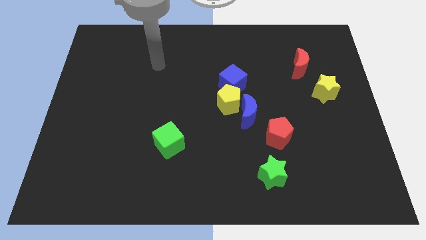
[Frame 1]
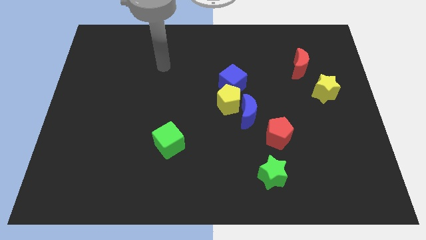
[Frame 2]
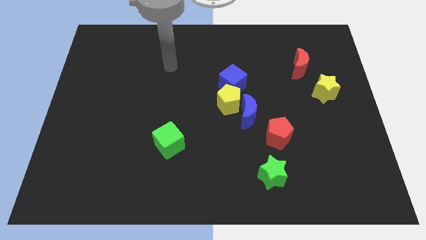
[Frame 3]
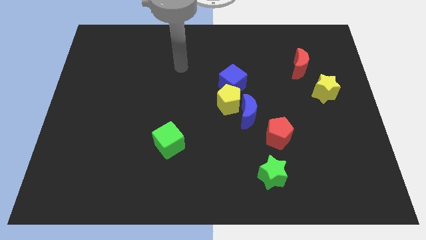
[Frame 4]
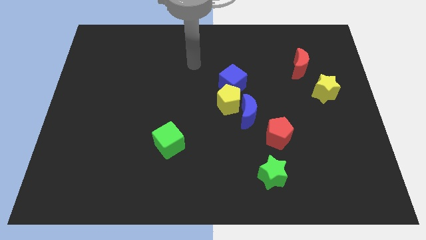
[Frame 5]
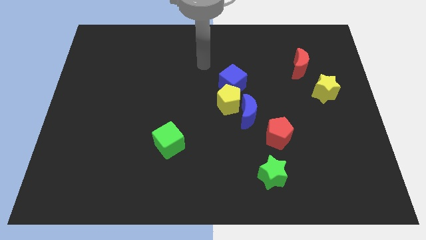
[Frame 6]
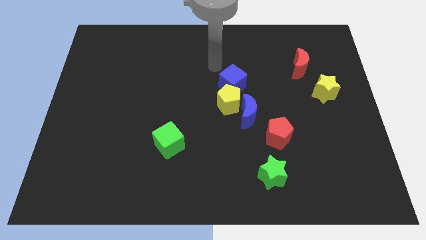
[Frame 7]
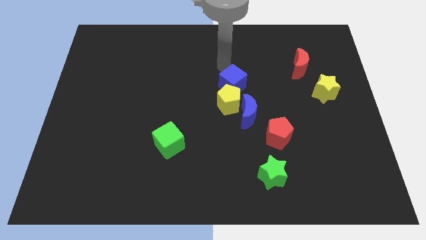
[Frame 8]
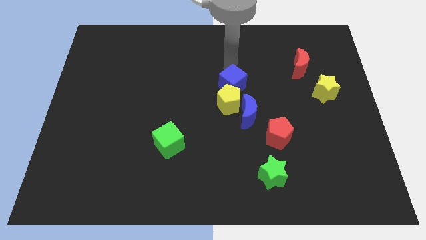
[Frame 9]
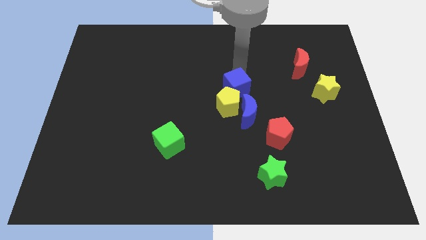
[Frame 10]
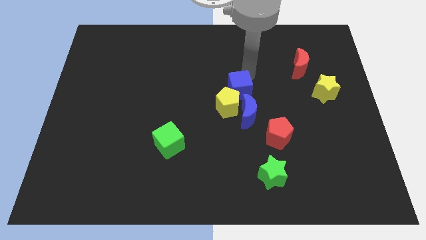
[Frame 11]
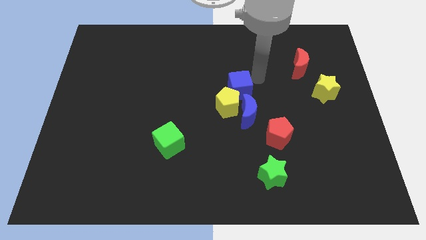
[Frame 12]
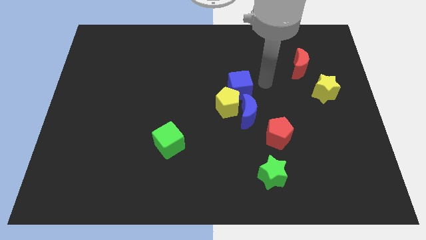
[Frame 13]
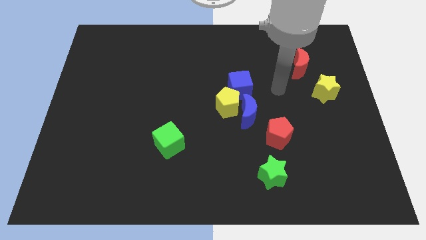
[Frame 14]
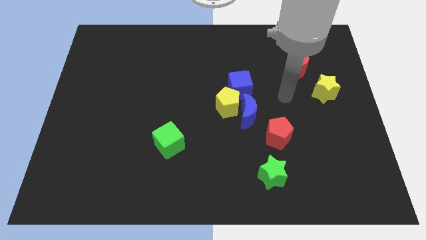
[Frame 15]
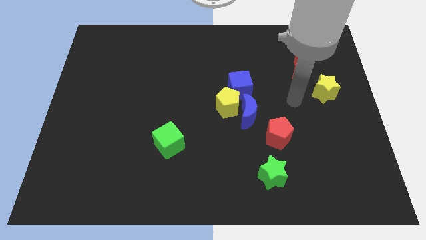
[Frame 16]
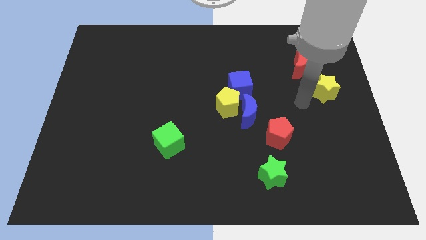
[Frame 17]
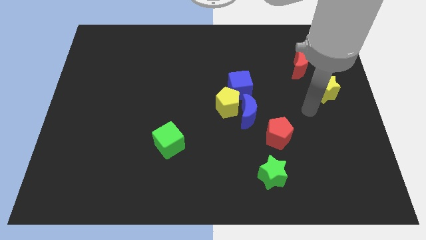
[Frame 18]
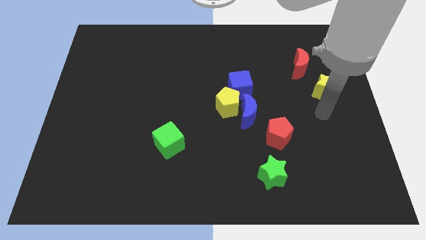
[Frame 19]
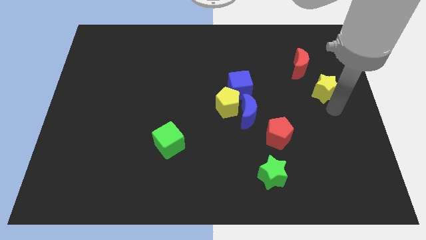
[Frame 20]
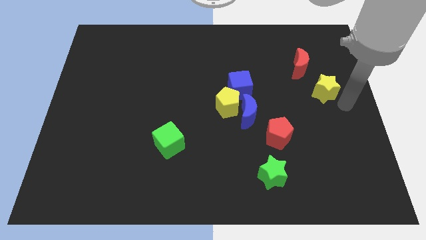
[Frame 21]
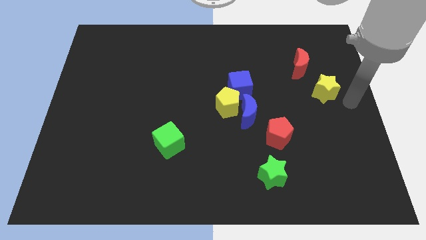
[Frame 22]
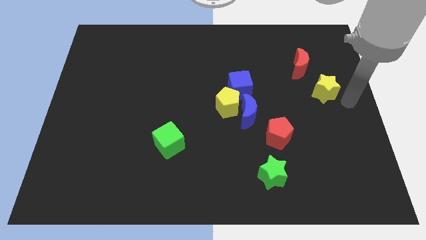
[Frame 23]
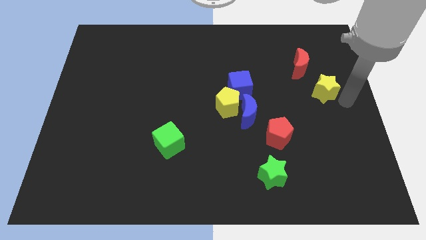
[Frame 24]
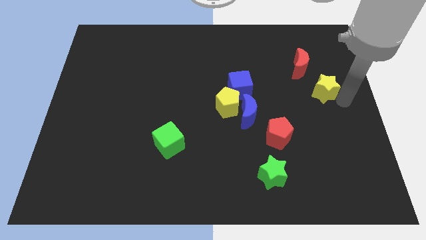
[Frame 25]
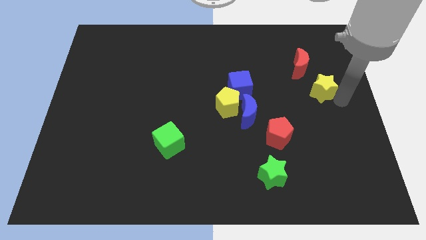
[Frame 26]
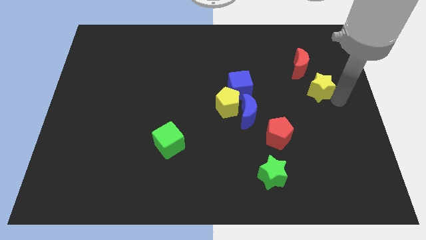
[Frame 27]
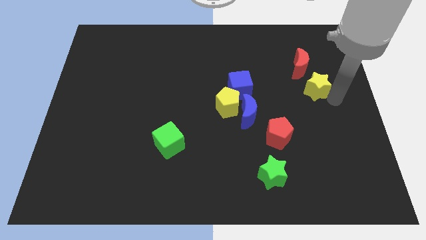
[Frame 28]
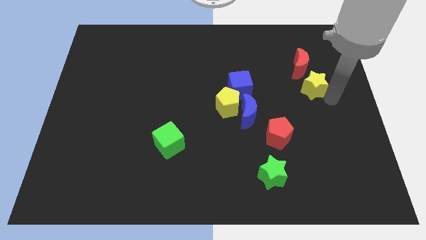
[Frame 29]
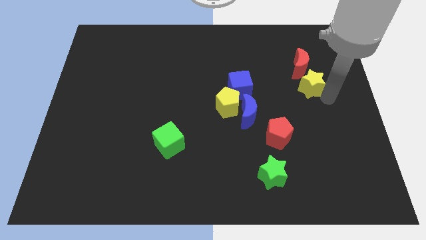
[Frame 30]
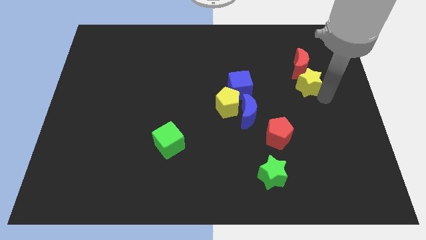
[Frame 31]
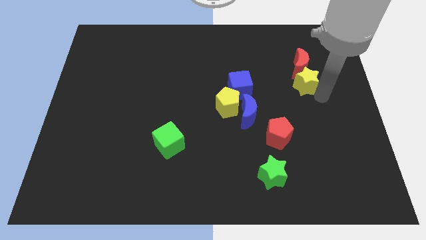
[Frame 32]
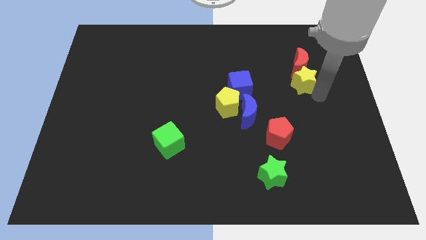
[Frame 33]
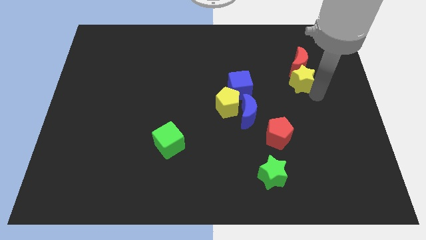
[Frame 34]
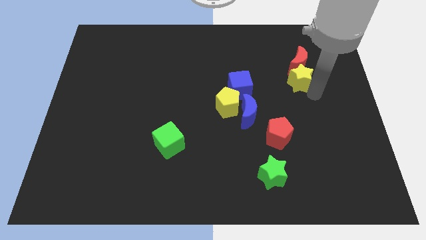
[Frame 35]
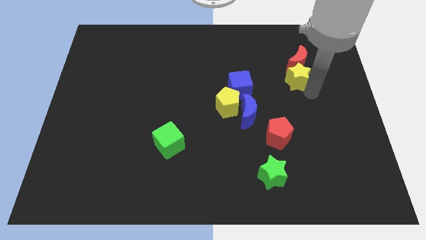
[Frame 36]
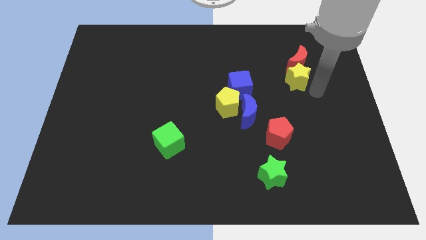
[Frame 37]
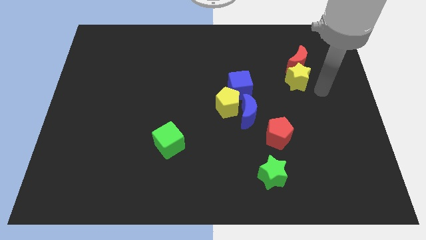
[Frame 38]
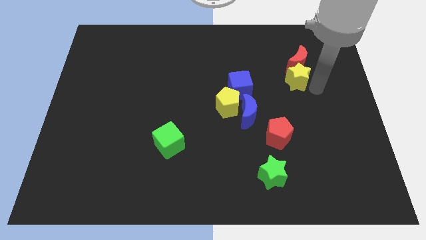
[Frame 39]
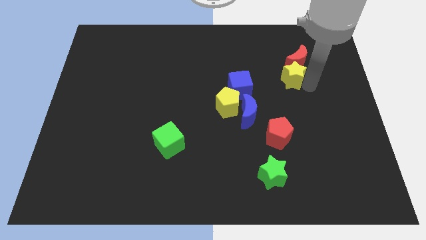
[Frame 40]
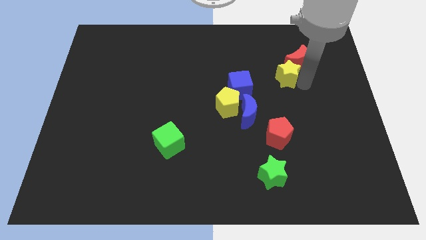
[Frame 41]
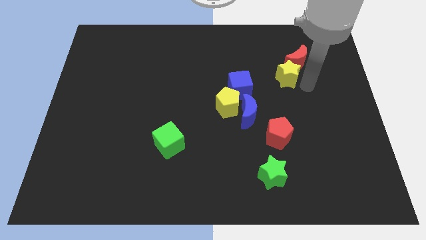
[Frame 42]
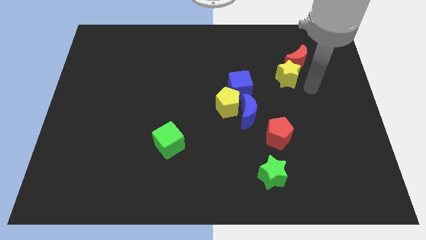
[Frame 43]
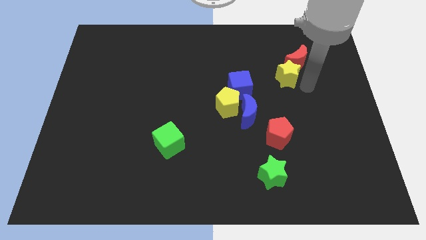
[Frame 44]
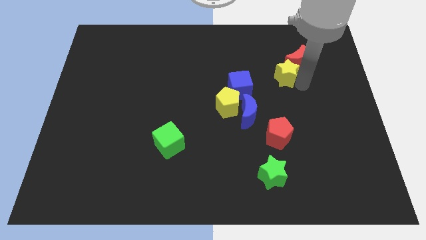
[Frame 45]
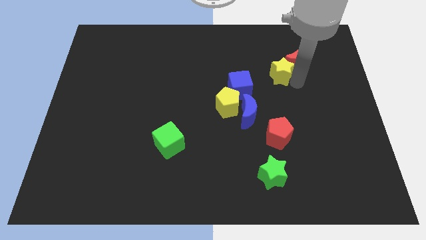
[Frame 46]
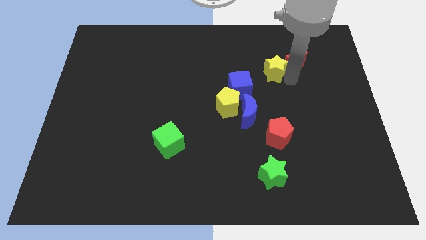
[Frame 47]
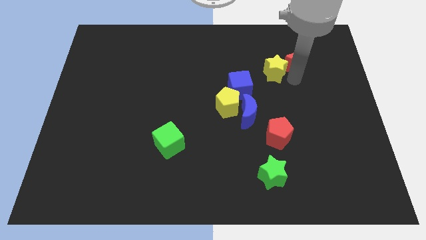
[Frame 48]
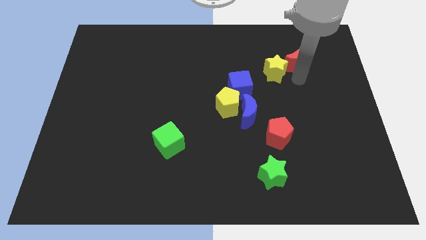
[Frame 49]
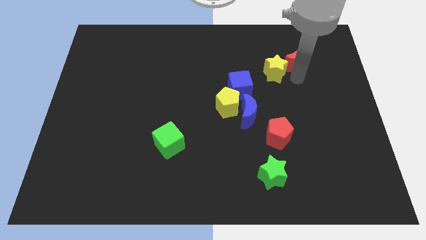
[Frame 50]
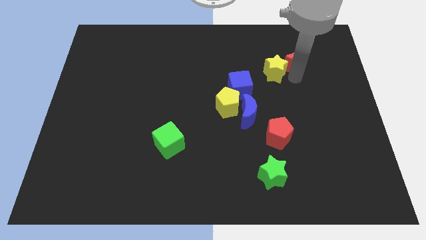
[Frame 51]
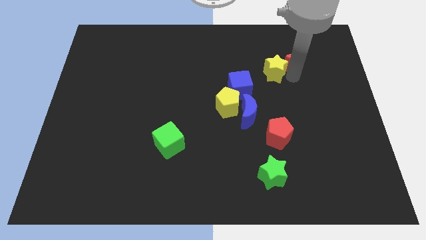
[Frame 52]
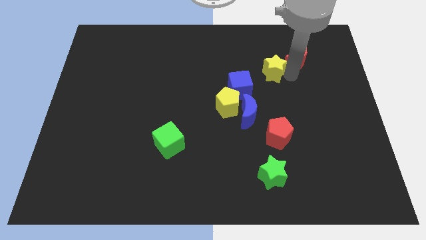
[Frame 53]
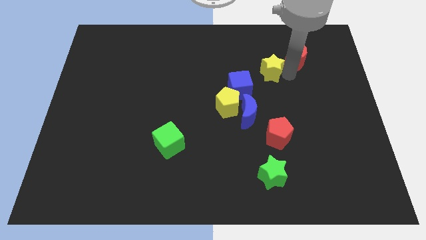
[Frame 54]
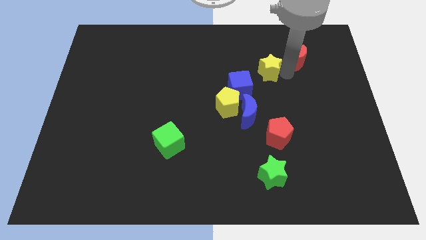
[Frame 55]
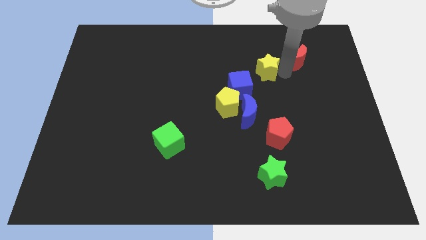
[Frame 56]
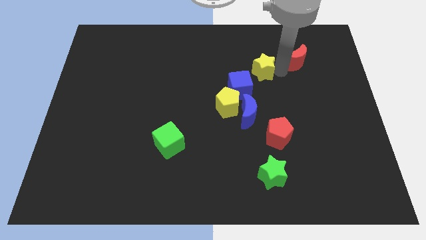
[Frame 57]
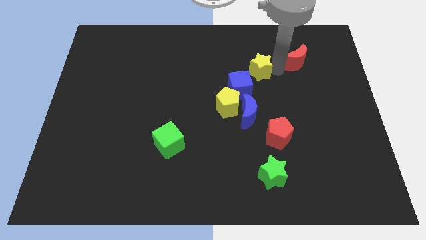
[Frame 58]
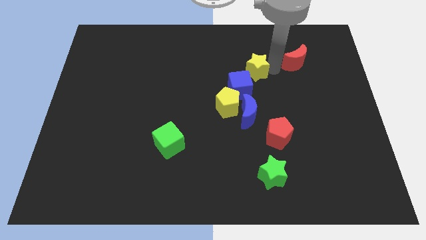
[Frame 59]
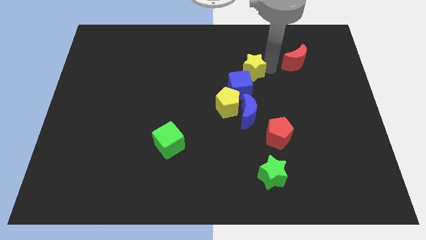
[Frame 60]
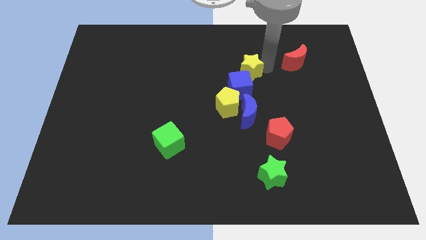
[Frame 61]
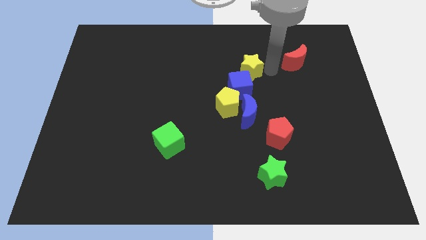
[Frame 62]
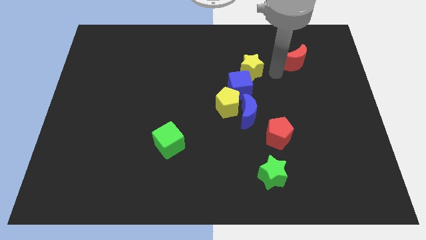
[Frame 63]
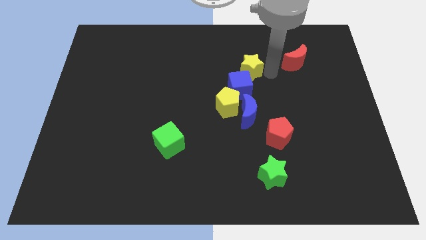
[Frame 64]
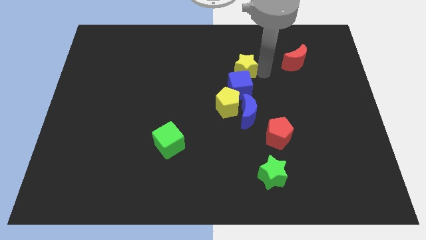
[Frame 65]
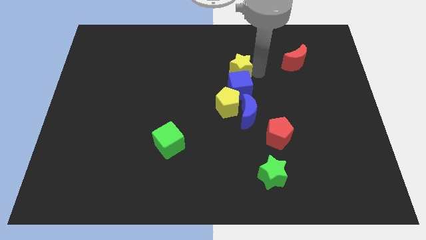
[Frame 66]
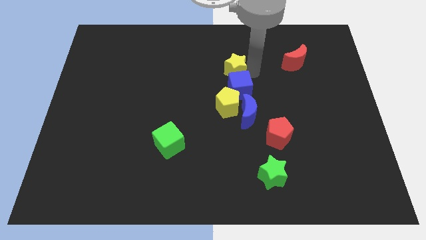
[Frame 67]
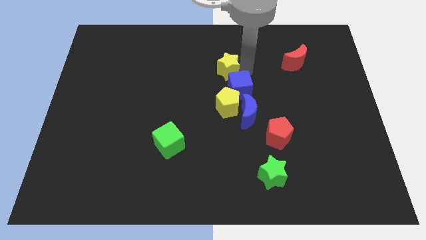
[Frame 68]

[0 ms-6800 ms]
move the yellow star left

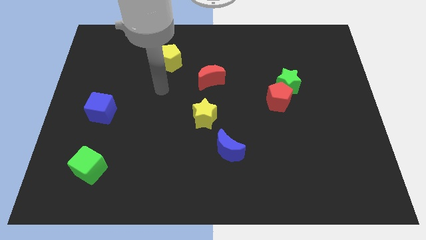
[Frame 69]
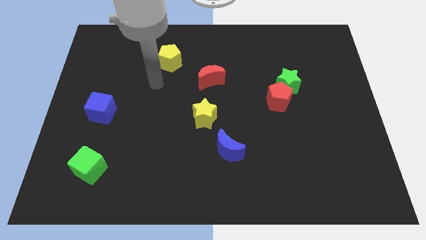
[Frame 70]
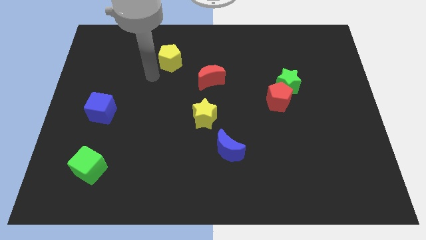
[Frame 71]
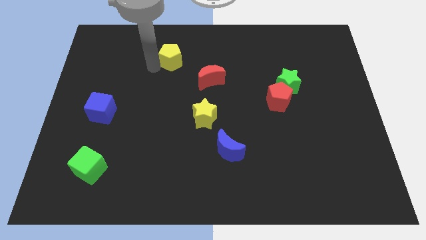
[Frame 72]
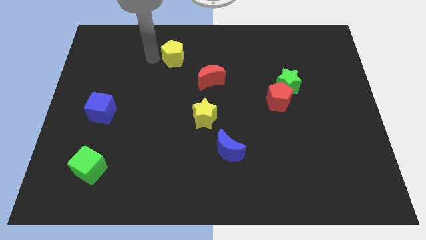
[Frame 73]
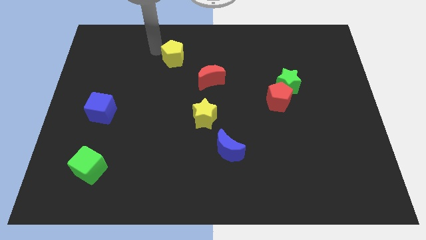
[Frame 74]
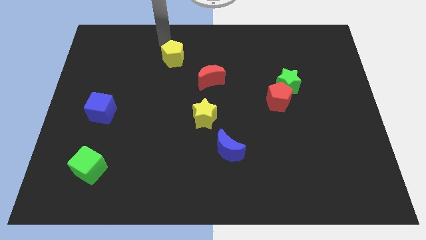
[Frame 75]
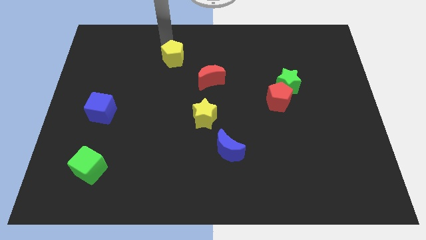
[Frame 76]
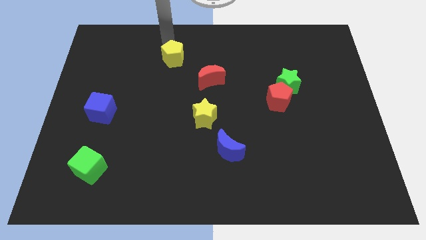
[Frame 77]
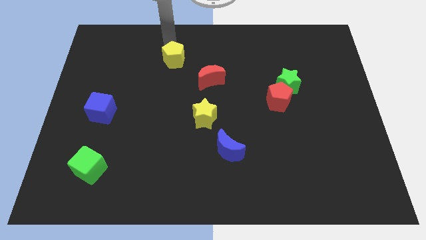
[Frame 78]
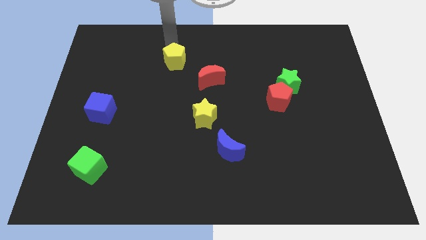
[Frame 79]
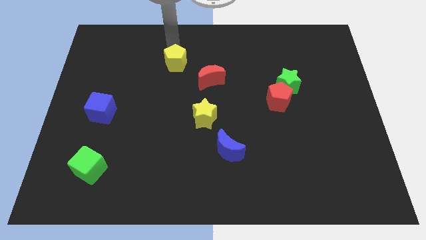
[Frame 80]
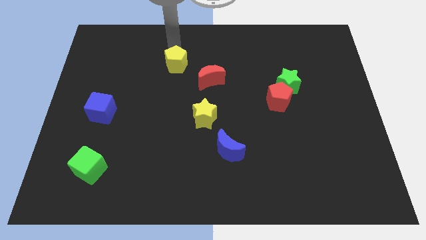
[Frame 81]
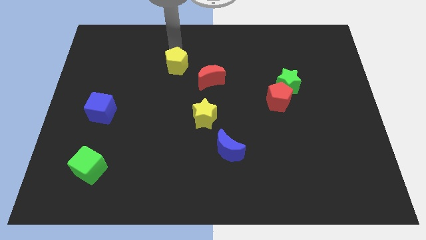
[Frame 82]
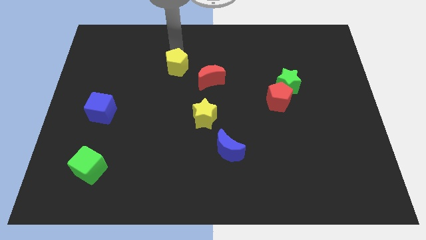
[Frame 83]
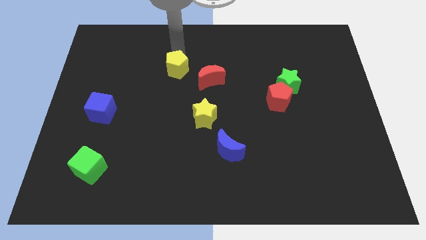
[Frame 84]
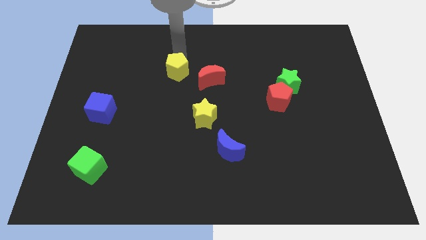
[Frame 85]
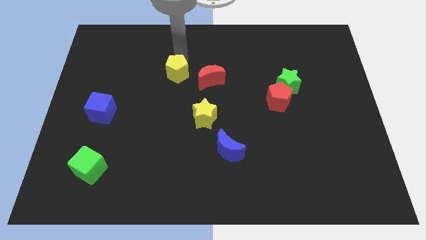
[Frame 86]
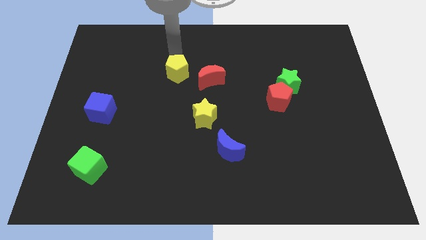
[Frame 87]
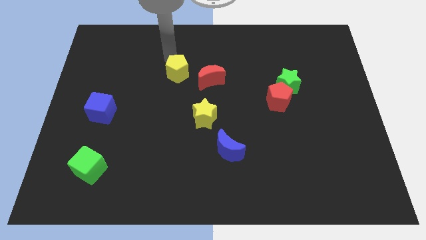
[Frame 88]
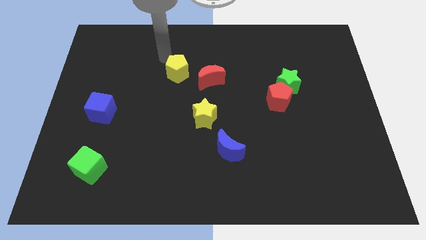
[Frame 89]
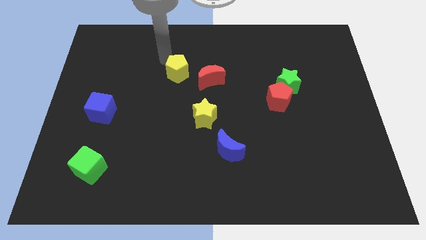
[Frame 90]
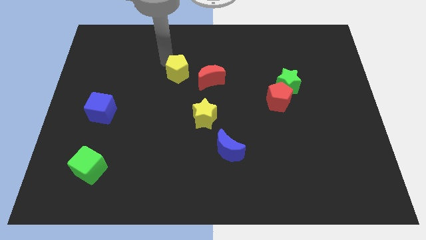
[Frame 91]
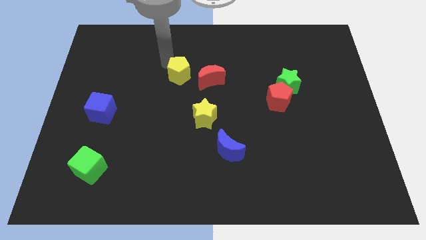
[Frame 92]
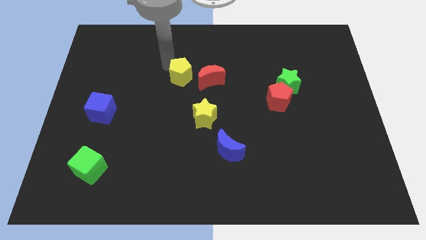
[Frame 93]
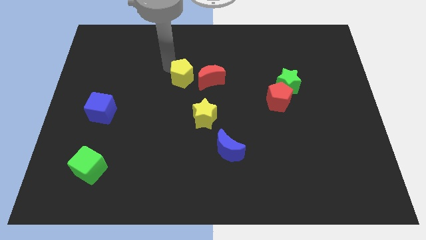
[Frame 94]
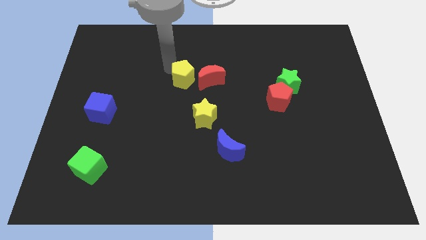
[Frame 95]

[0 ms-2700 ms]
slightly push the yellow pentagon down and to the right
